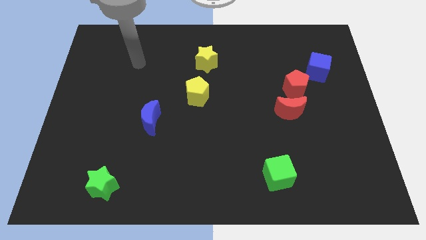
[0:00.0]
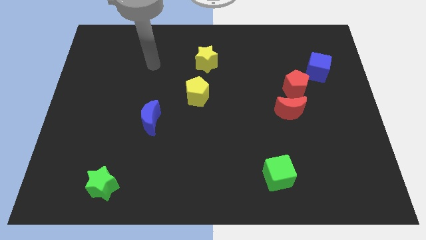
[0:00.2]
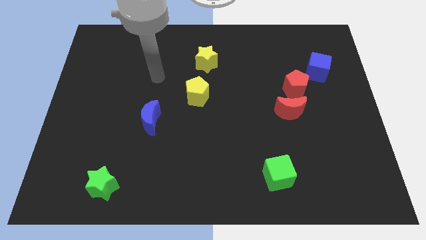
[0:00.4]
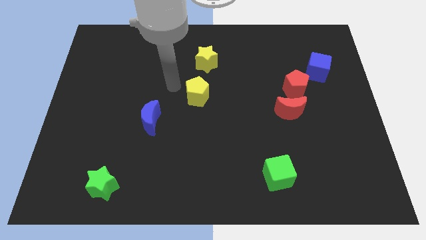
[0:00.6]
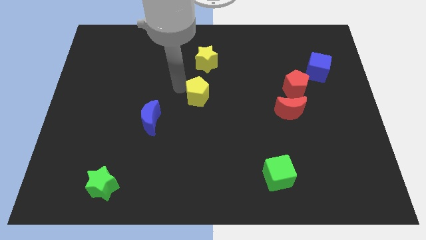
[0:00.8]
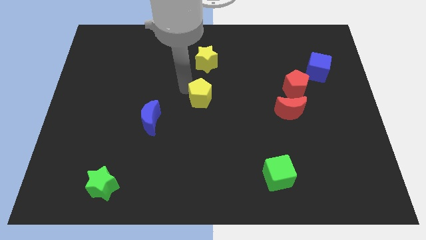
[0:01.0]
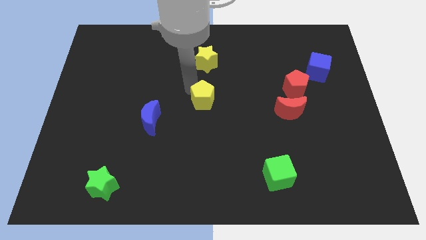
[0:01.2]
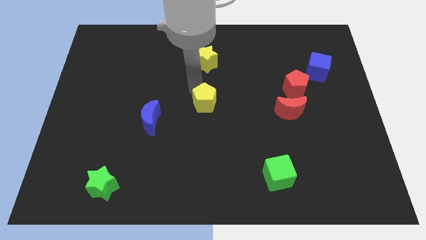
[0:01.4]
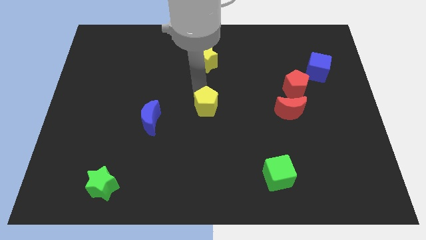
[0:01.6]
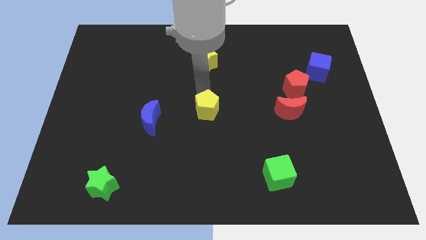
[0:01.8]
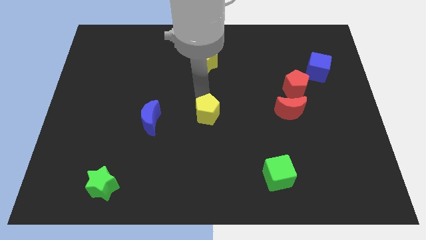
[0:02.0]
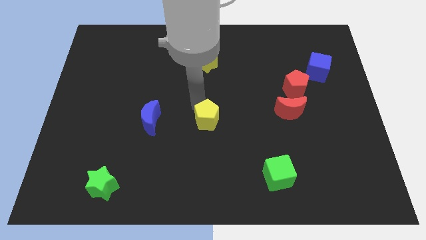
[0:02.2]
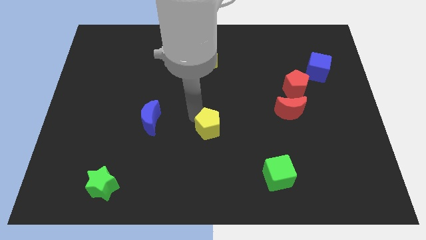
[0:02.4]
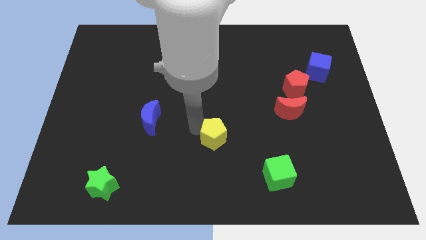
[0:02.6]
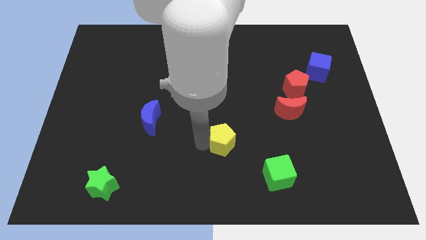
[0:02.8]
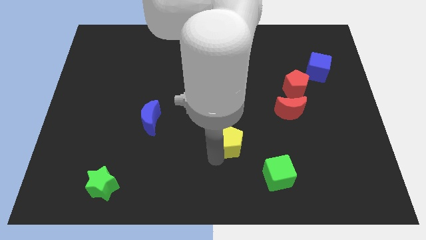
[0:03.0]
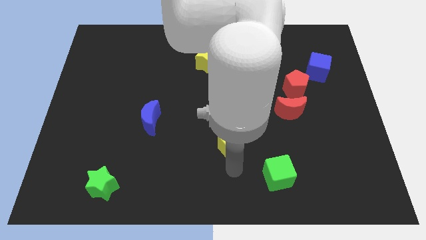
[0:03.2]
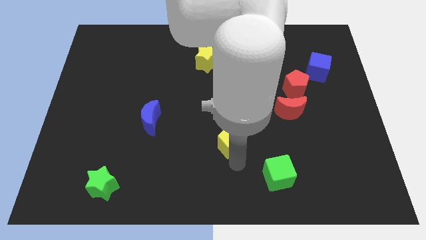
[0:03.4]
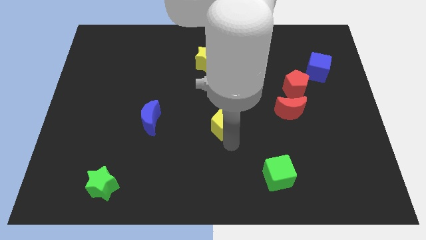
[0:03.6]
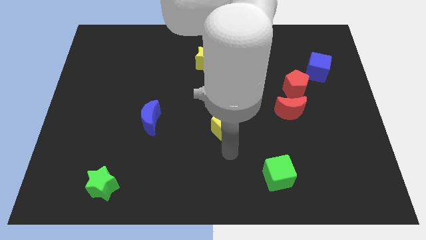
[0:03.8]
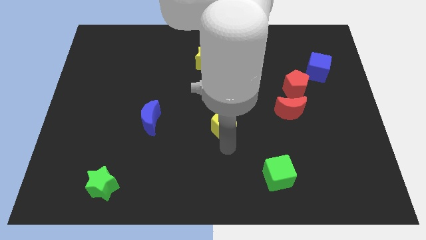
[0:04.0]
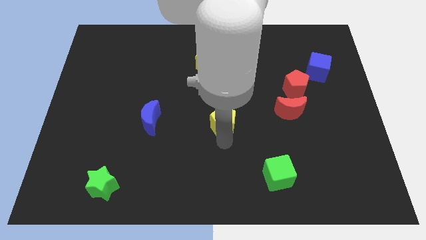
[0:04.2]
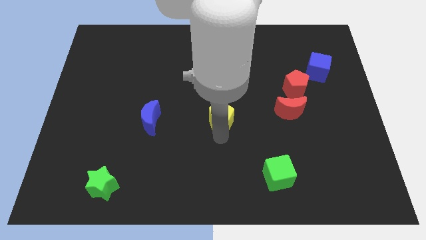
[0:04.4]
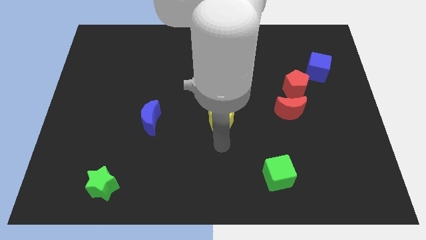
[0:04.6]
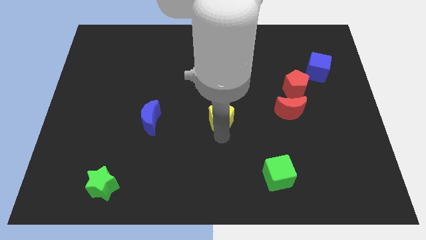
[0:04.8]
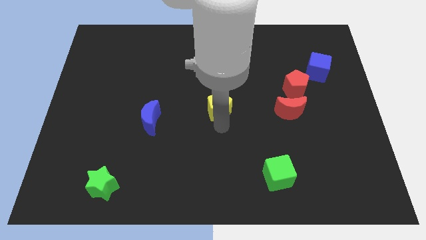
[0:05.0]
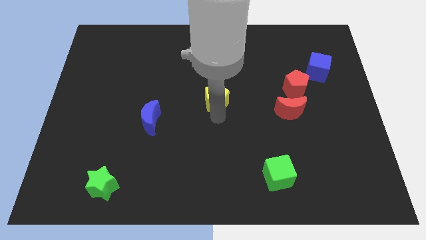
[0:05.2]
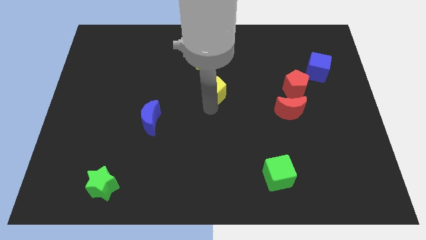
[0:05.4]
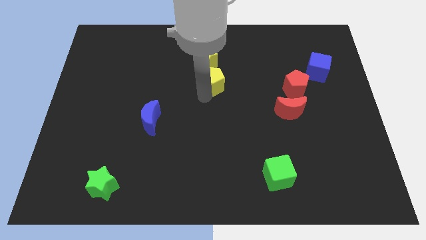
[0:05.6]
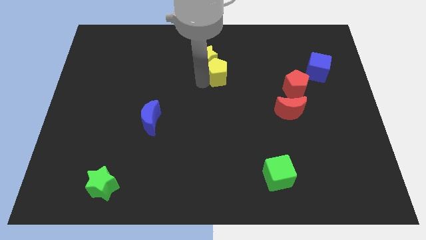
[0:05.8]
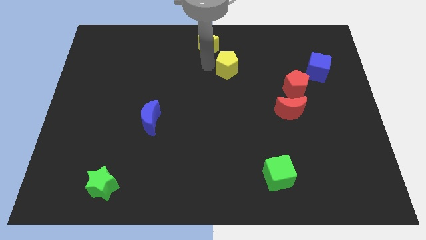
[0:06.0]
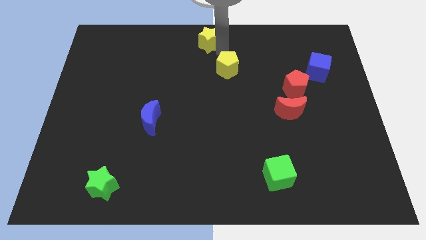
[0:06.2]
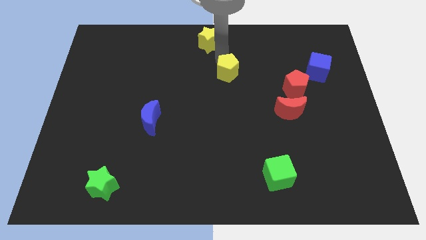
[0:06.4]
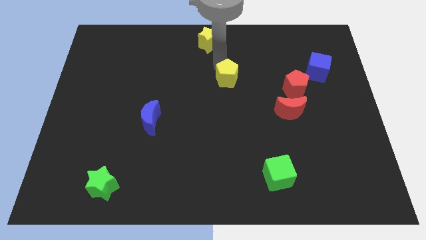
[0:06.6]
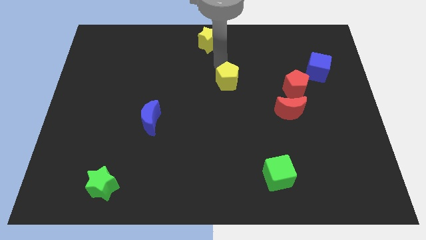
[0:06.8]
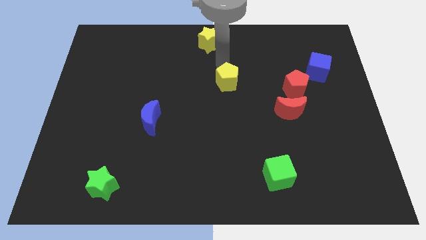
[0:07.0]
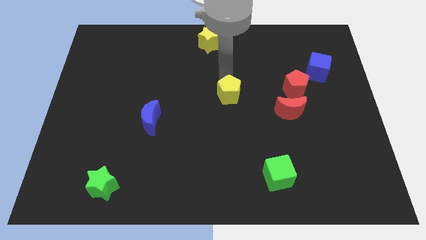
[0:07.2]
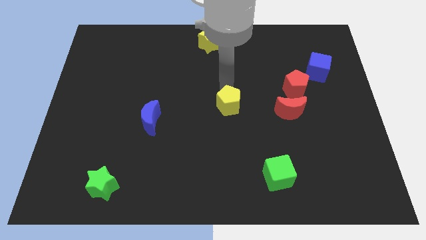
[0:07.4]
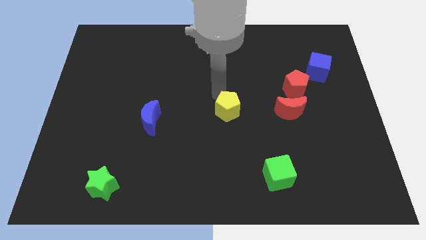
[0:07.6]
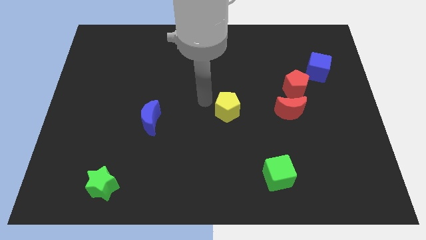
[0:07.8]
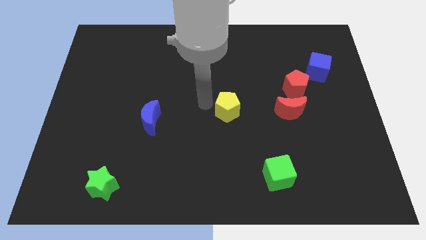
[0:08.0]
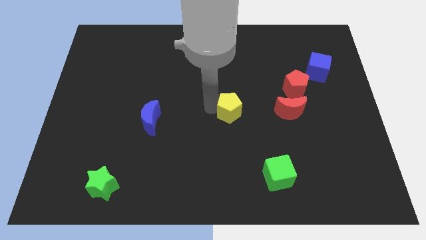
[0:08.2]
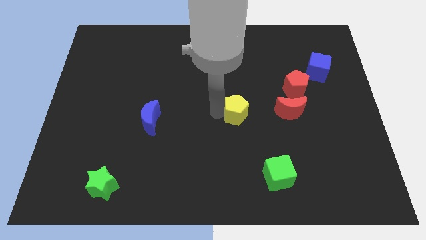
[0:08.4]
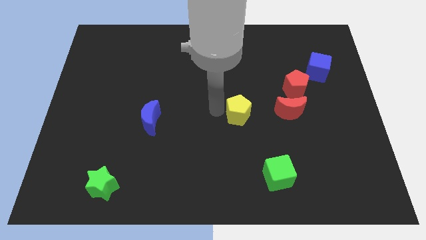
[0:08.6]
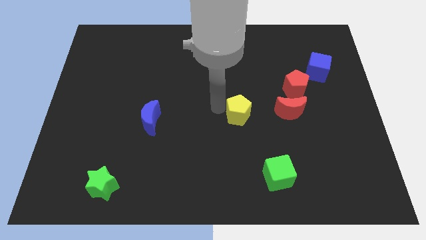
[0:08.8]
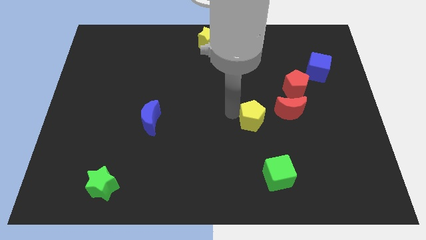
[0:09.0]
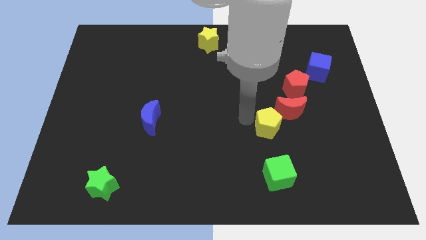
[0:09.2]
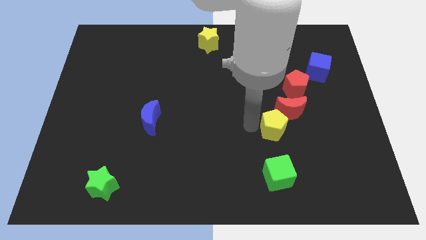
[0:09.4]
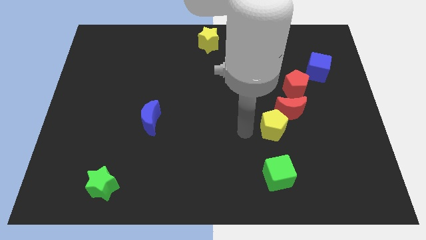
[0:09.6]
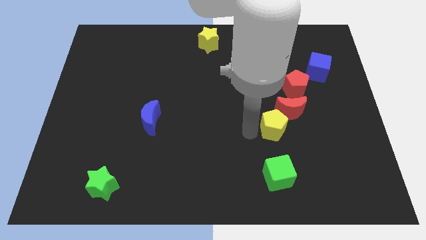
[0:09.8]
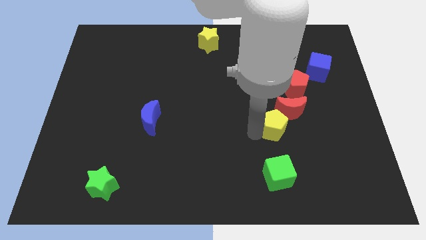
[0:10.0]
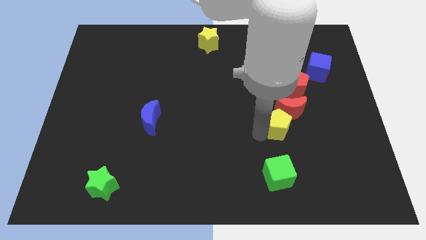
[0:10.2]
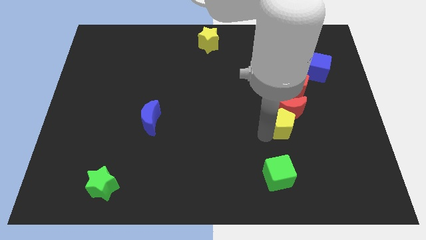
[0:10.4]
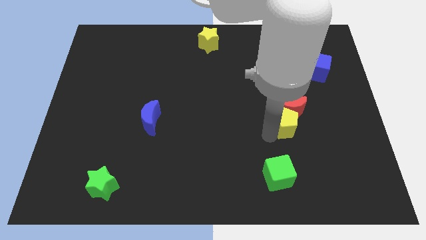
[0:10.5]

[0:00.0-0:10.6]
slide the yellow pentagon to the bottom right of the red moon

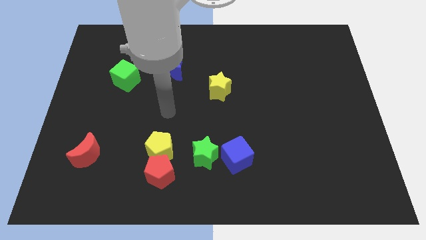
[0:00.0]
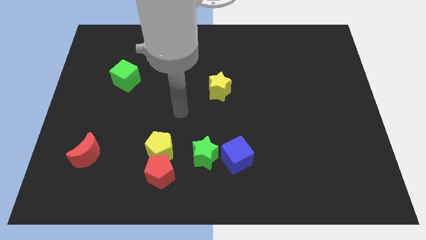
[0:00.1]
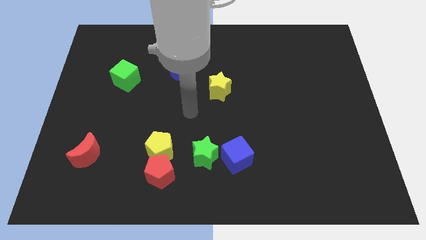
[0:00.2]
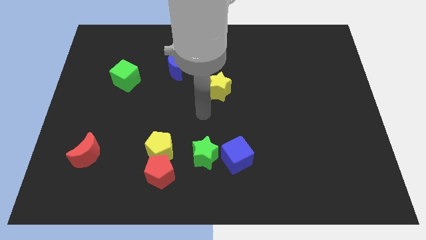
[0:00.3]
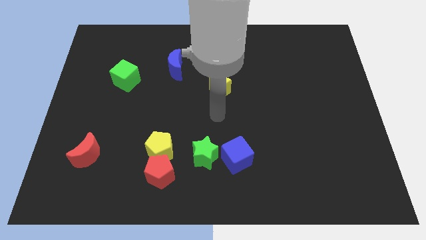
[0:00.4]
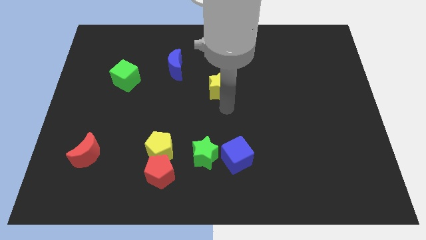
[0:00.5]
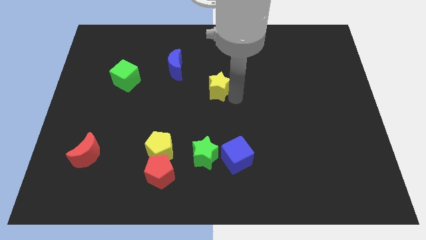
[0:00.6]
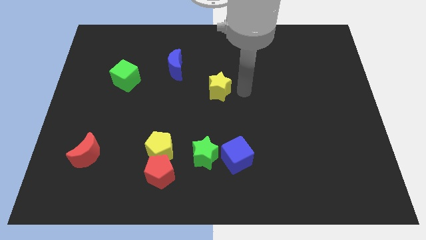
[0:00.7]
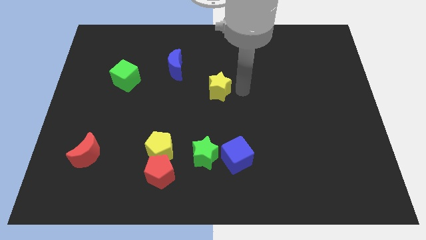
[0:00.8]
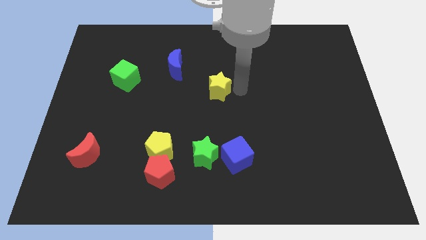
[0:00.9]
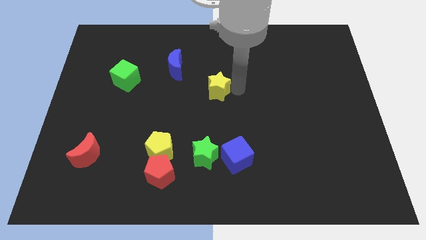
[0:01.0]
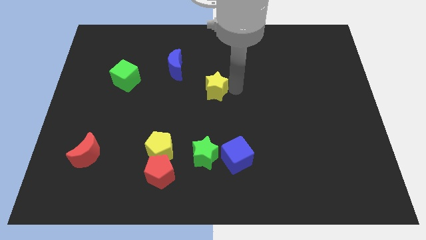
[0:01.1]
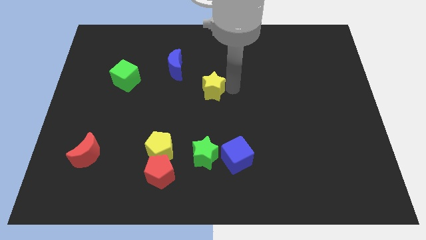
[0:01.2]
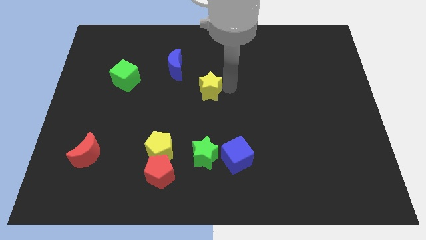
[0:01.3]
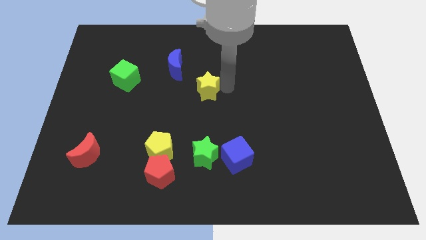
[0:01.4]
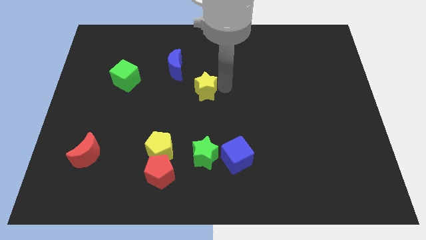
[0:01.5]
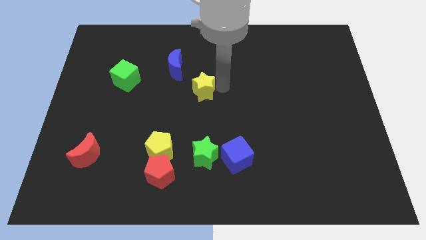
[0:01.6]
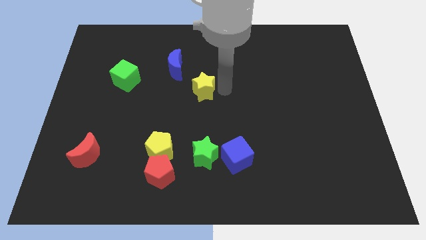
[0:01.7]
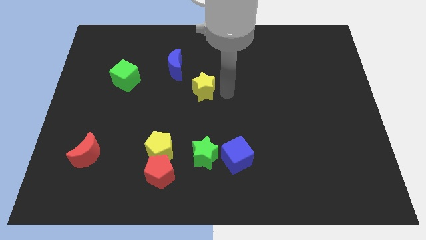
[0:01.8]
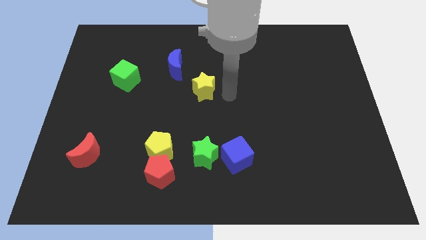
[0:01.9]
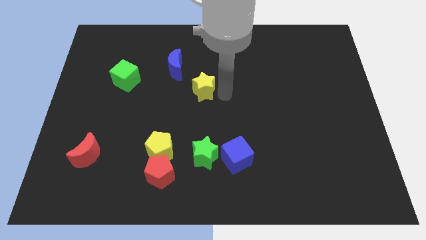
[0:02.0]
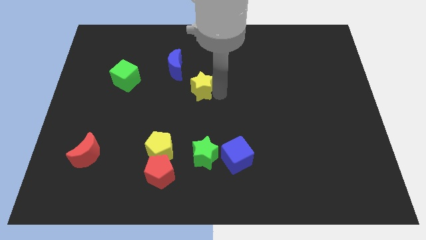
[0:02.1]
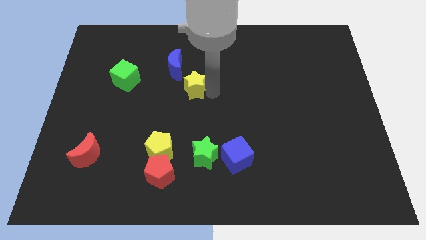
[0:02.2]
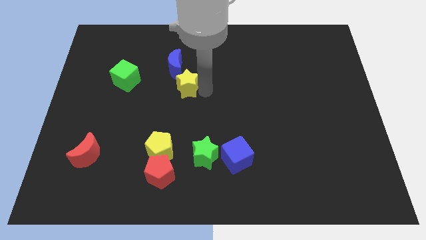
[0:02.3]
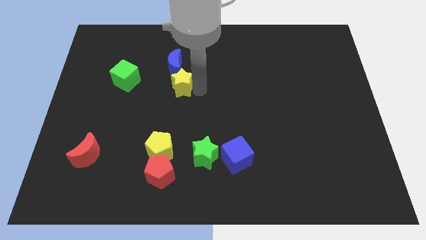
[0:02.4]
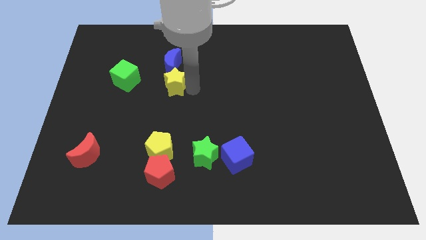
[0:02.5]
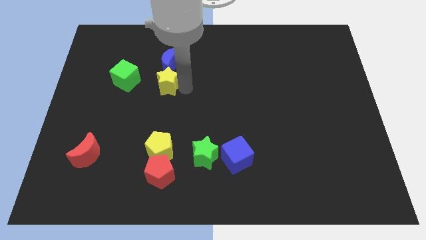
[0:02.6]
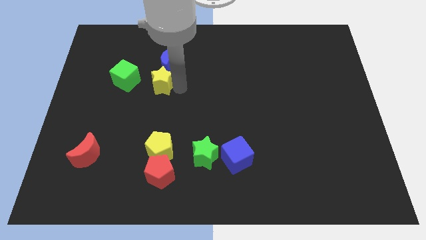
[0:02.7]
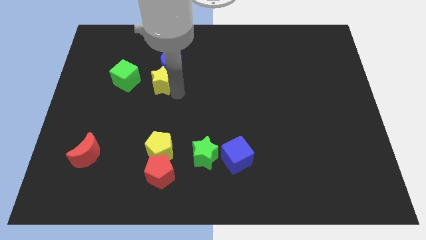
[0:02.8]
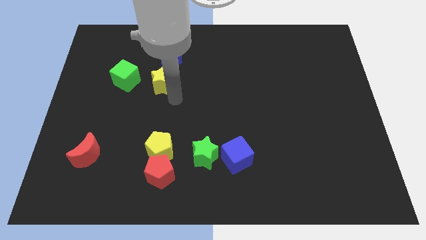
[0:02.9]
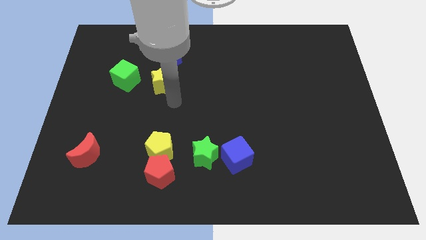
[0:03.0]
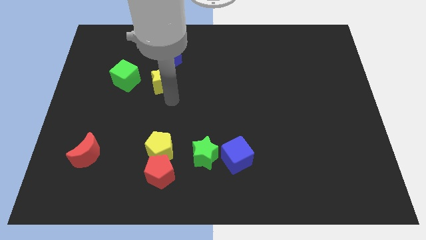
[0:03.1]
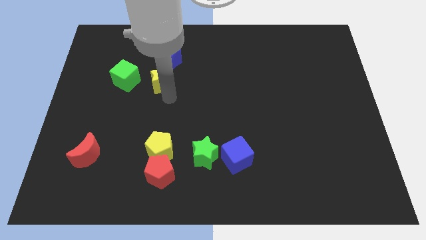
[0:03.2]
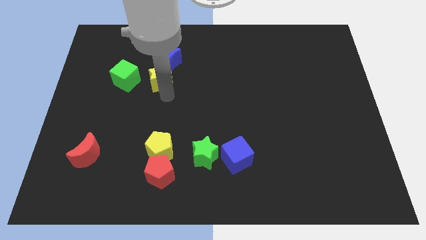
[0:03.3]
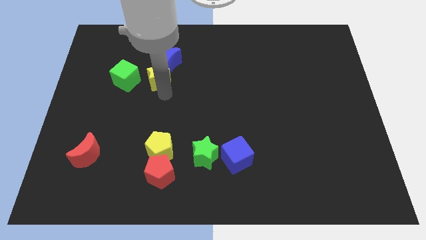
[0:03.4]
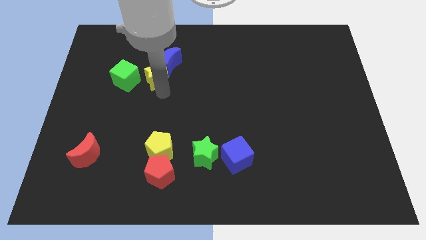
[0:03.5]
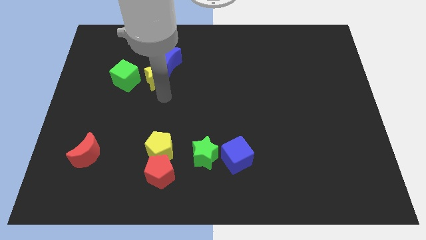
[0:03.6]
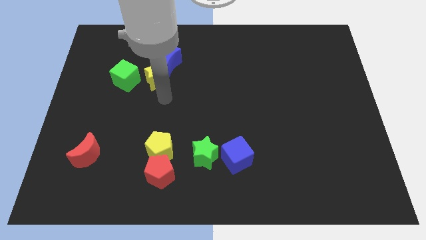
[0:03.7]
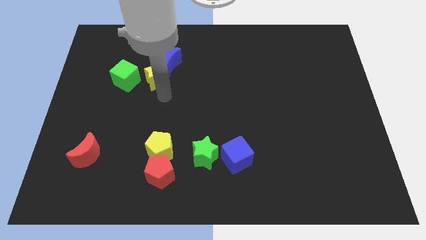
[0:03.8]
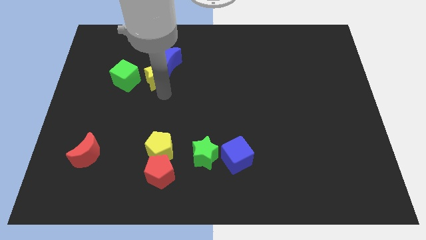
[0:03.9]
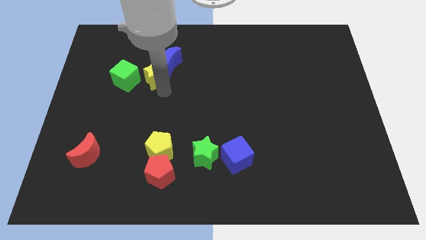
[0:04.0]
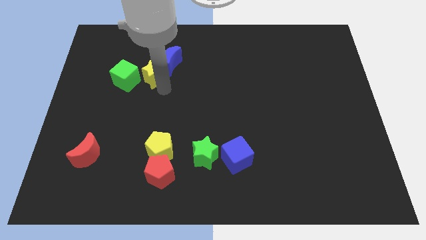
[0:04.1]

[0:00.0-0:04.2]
put the yellow star diagonally up and to the right of the green cube
